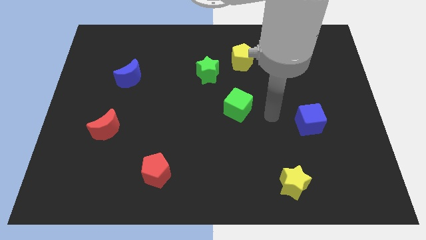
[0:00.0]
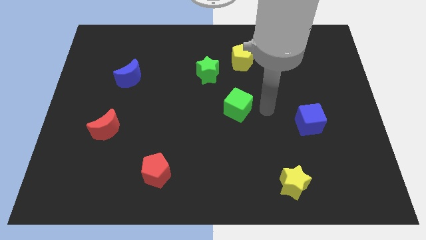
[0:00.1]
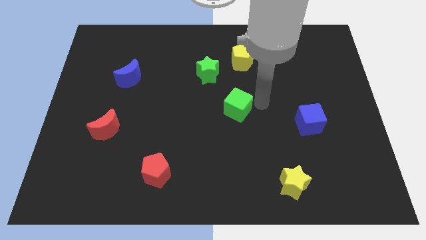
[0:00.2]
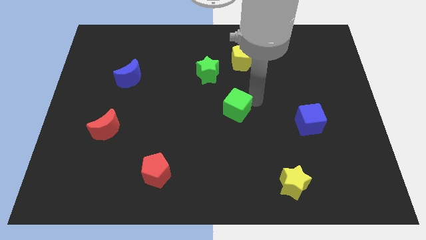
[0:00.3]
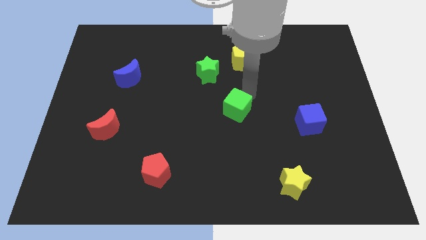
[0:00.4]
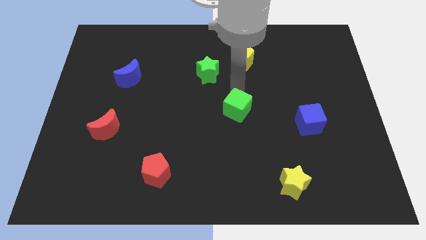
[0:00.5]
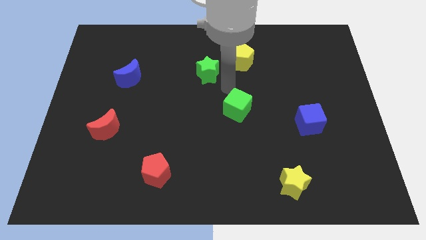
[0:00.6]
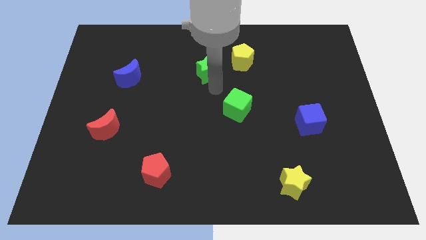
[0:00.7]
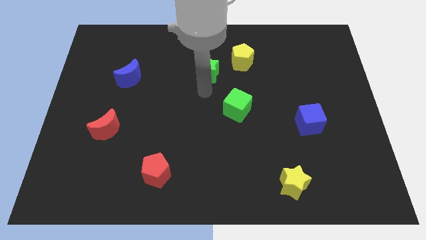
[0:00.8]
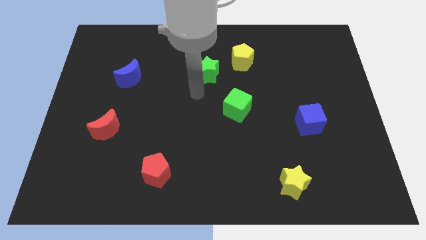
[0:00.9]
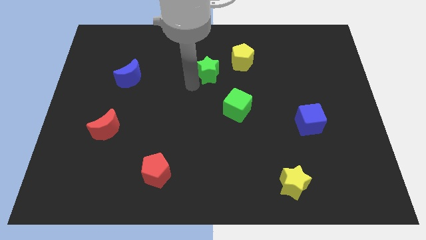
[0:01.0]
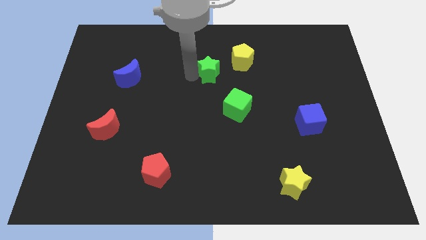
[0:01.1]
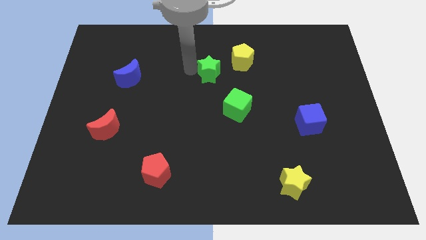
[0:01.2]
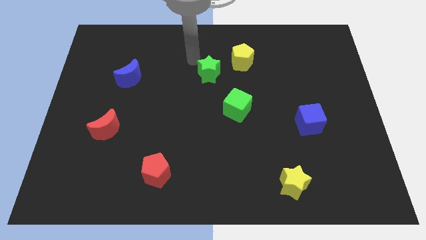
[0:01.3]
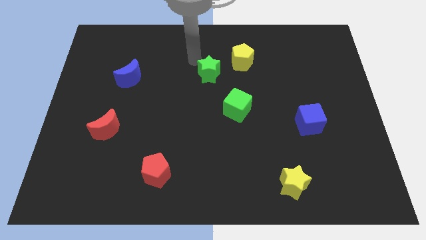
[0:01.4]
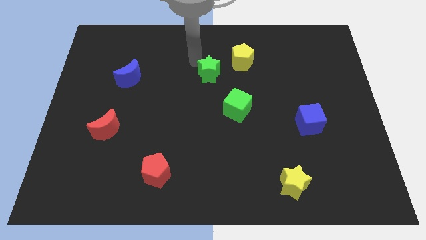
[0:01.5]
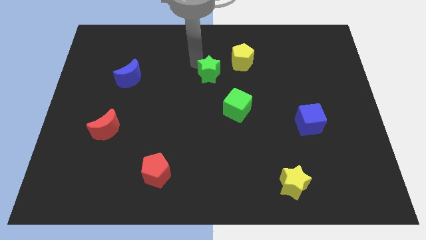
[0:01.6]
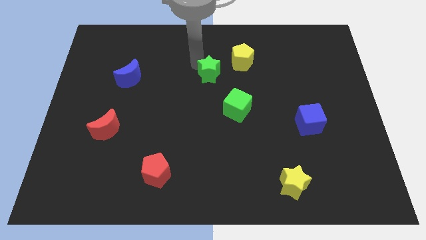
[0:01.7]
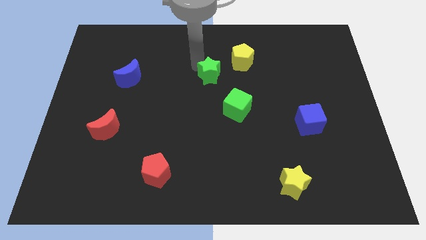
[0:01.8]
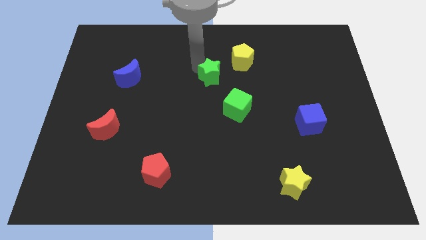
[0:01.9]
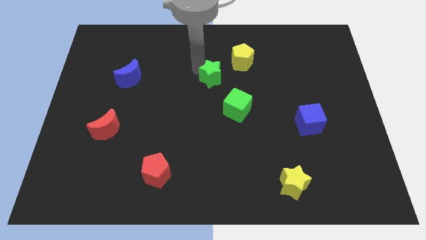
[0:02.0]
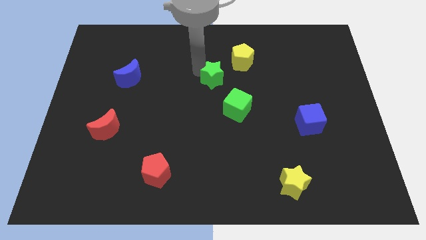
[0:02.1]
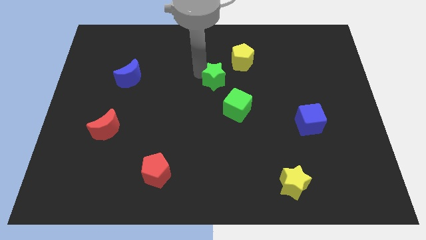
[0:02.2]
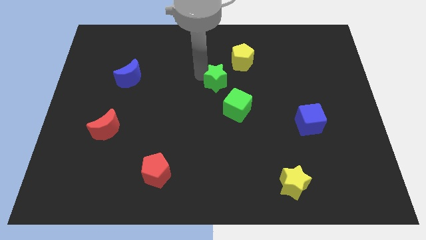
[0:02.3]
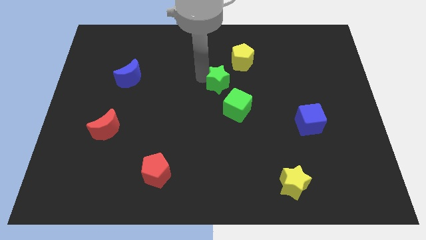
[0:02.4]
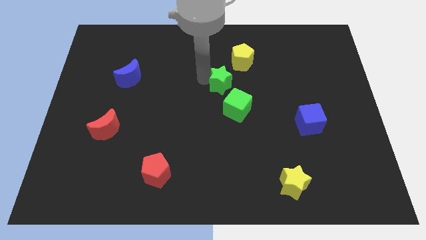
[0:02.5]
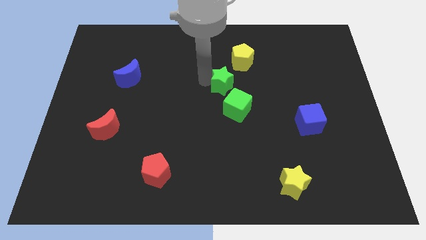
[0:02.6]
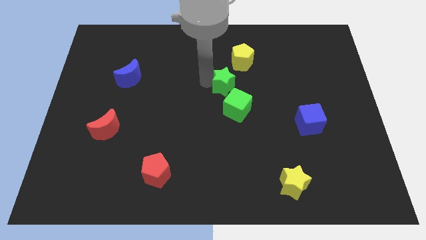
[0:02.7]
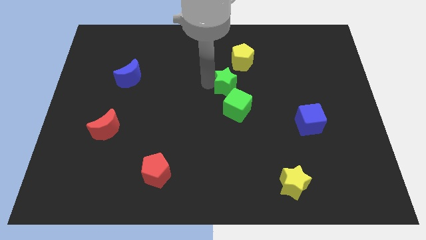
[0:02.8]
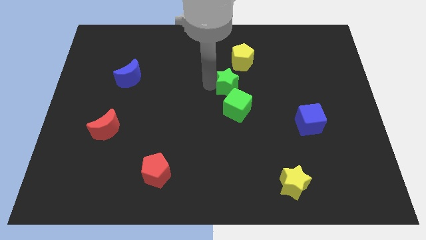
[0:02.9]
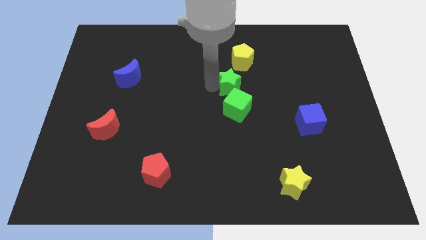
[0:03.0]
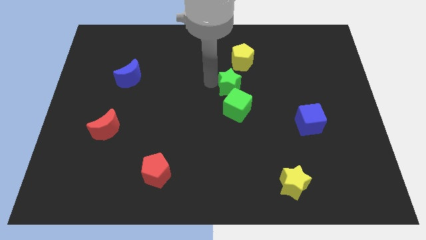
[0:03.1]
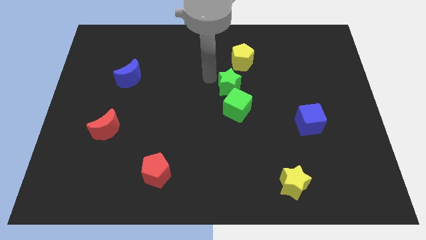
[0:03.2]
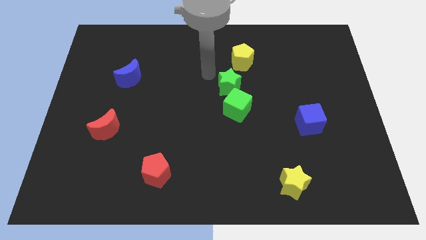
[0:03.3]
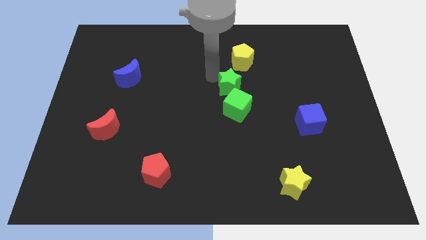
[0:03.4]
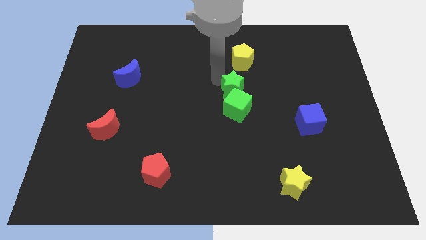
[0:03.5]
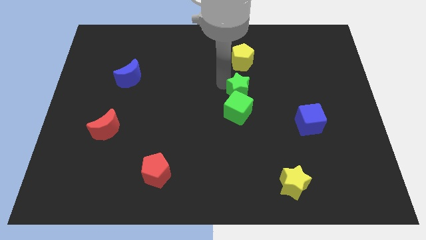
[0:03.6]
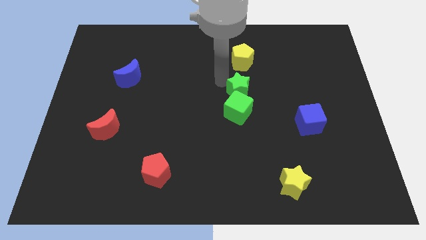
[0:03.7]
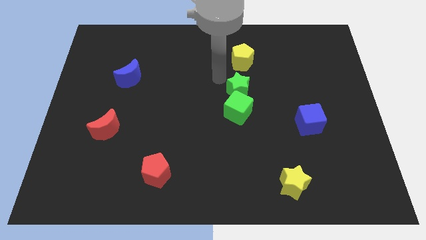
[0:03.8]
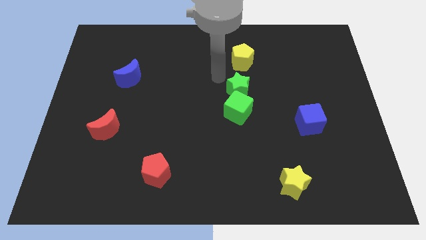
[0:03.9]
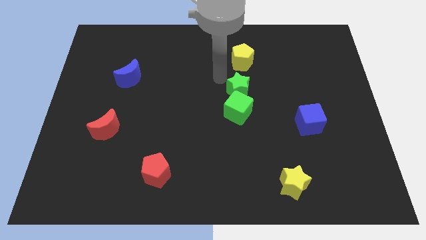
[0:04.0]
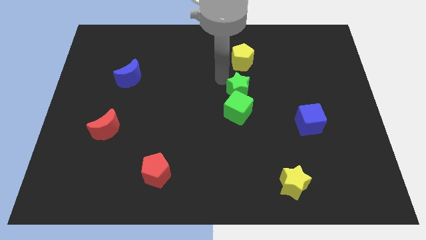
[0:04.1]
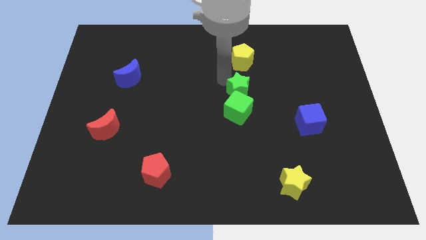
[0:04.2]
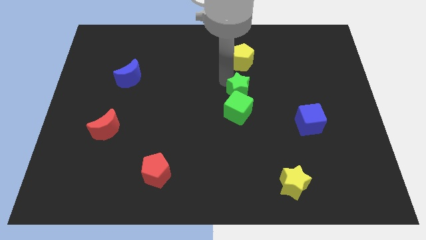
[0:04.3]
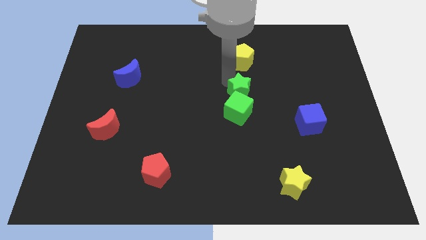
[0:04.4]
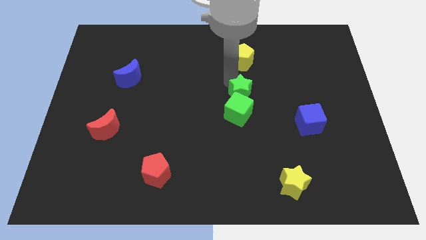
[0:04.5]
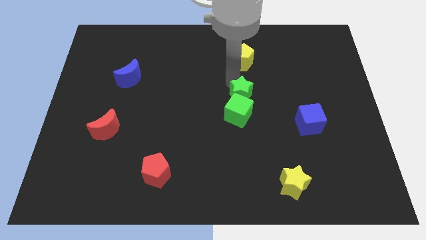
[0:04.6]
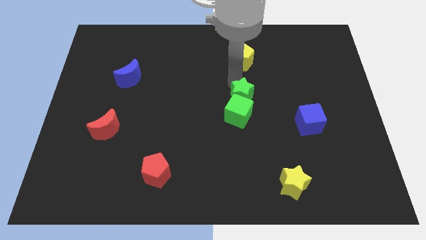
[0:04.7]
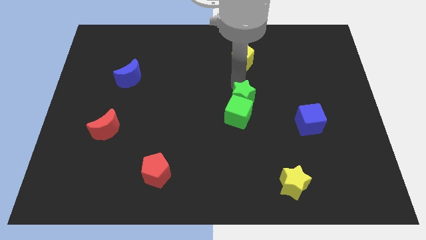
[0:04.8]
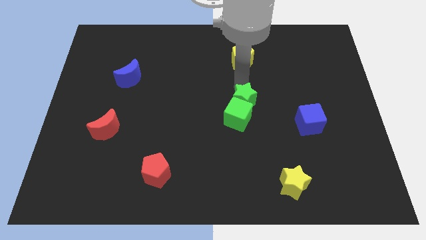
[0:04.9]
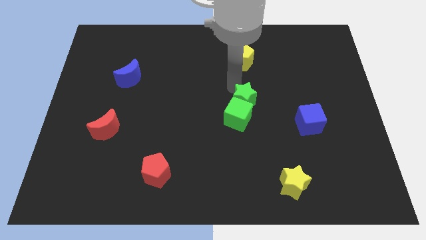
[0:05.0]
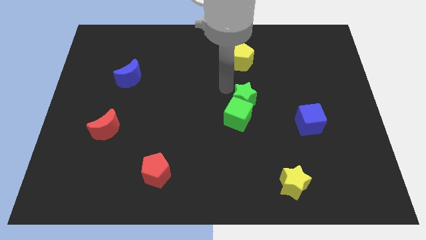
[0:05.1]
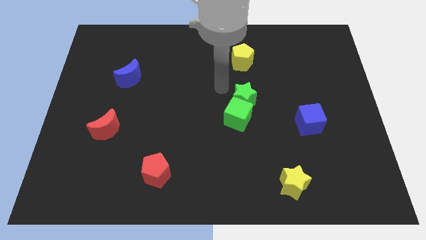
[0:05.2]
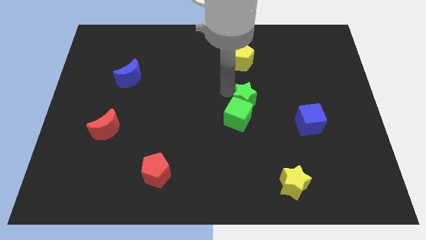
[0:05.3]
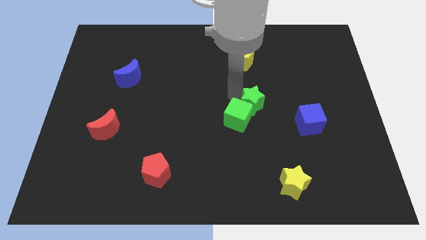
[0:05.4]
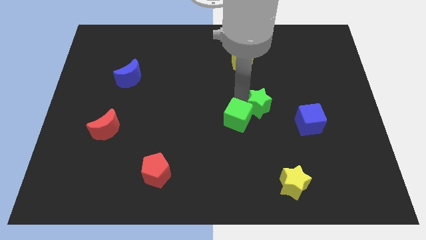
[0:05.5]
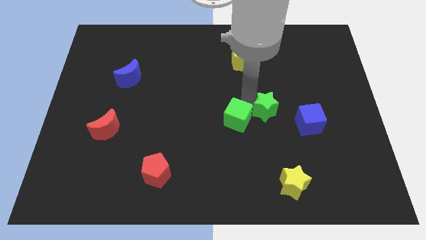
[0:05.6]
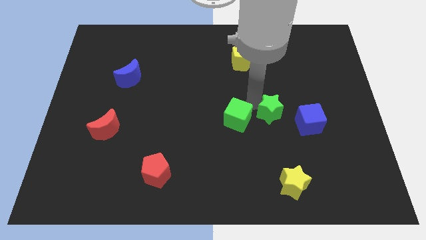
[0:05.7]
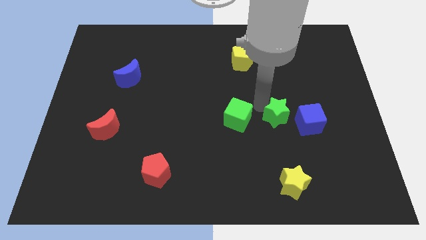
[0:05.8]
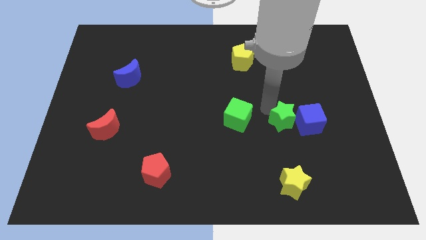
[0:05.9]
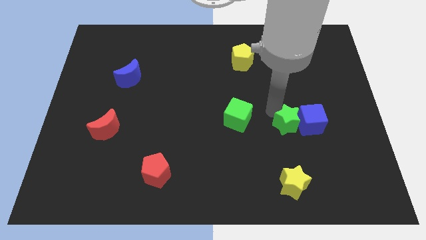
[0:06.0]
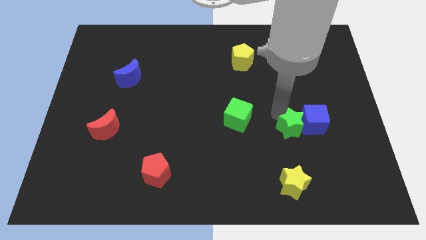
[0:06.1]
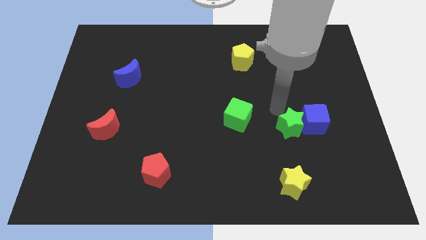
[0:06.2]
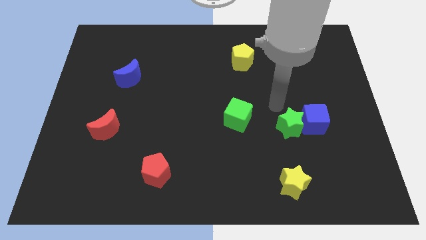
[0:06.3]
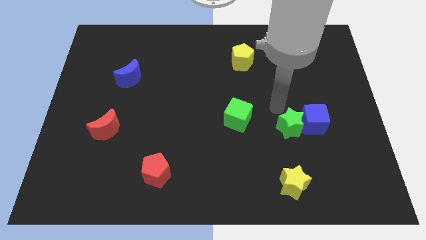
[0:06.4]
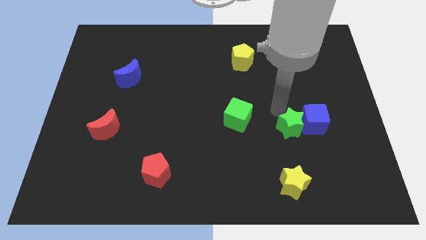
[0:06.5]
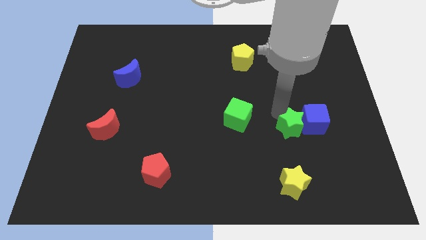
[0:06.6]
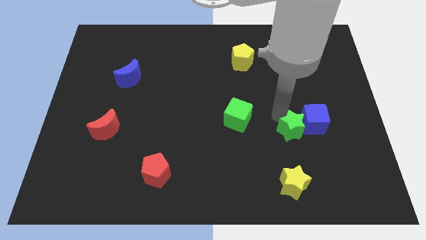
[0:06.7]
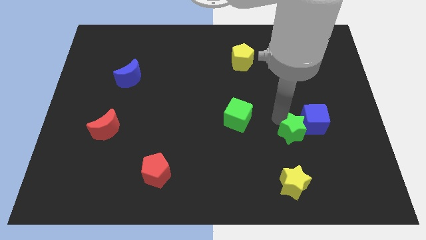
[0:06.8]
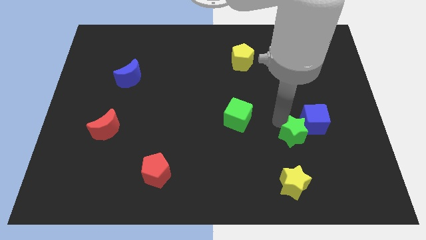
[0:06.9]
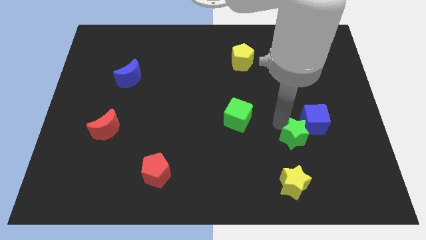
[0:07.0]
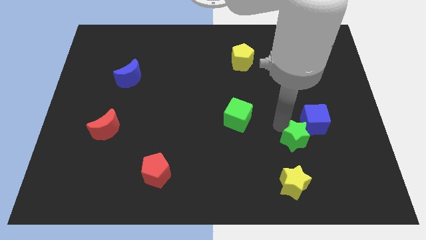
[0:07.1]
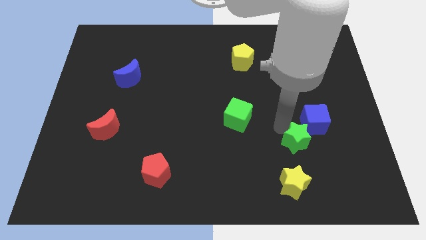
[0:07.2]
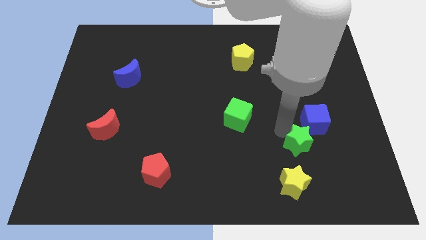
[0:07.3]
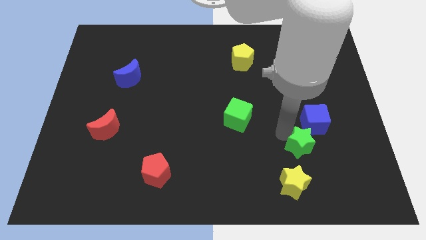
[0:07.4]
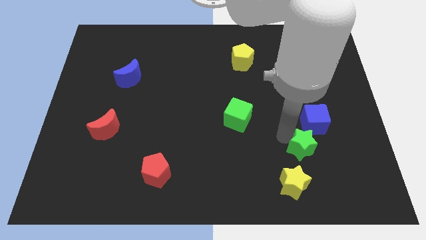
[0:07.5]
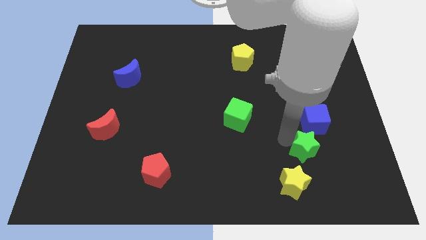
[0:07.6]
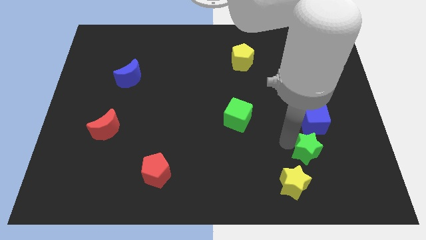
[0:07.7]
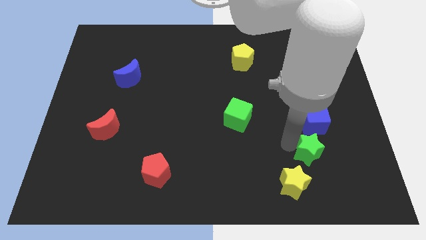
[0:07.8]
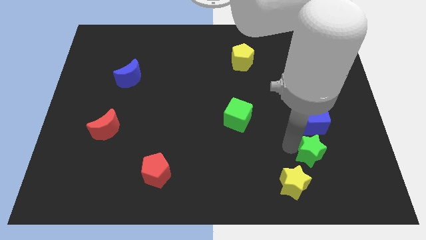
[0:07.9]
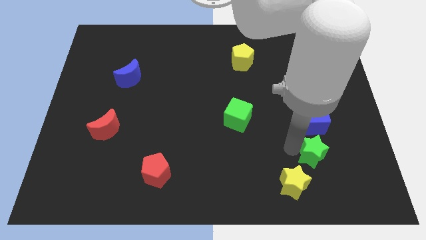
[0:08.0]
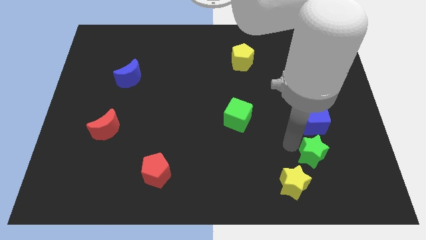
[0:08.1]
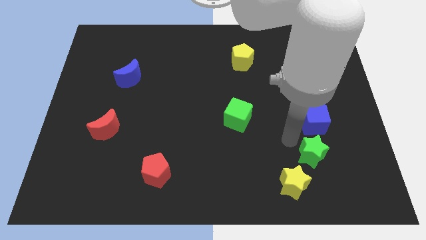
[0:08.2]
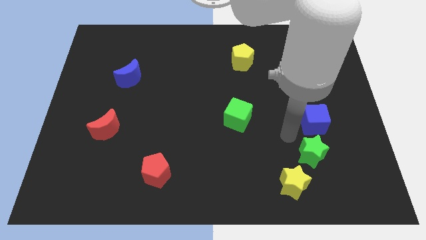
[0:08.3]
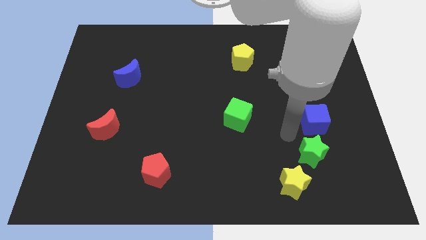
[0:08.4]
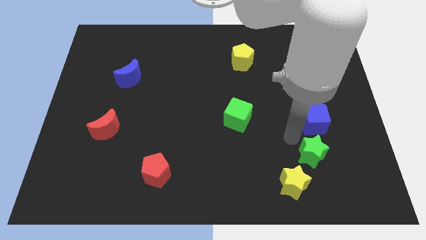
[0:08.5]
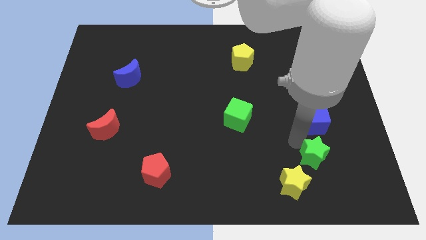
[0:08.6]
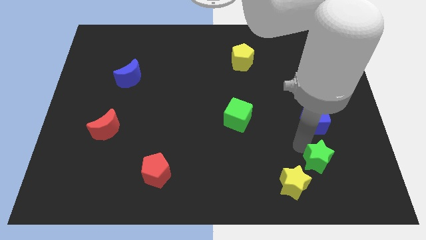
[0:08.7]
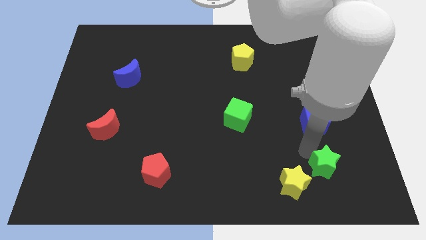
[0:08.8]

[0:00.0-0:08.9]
slide the green star right of the yellow star
